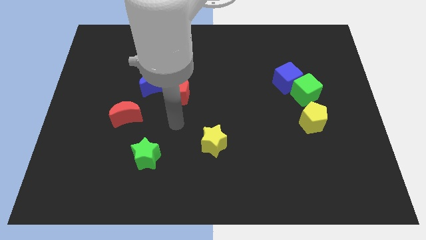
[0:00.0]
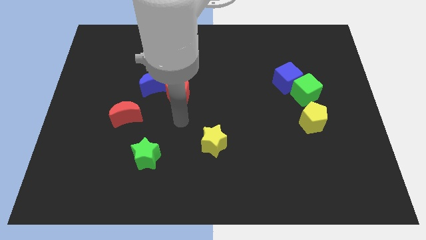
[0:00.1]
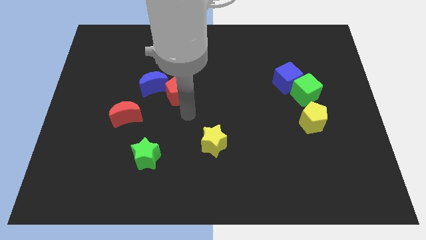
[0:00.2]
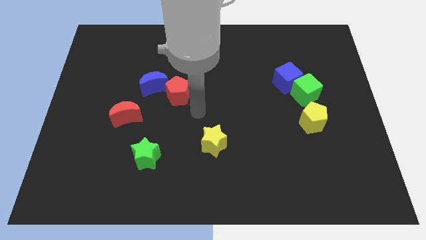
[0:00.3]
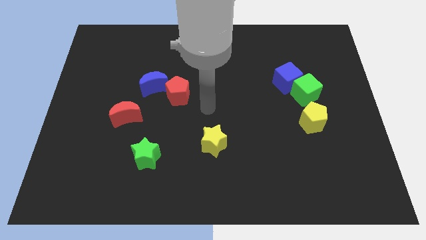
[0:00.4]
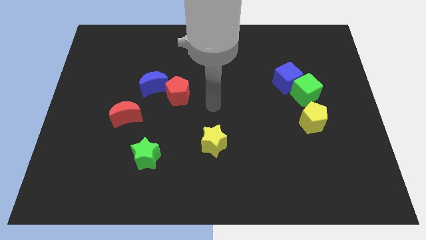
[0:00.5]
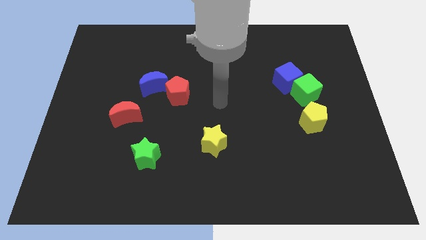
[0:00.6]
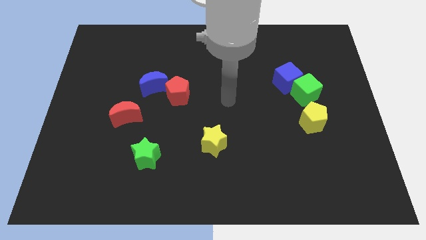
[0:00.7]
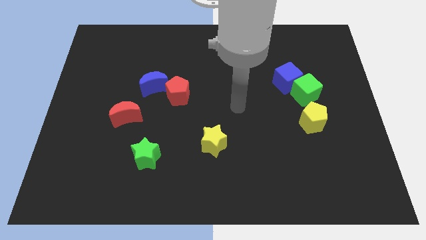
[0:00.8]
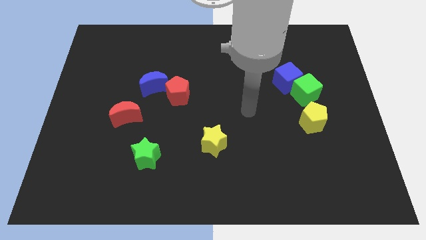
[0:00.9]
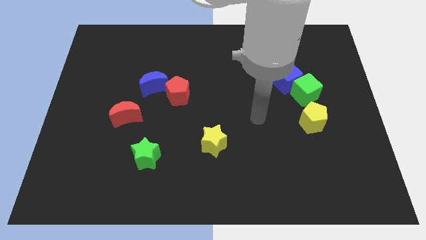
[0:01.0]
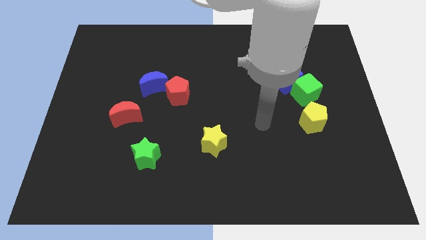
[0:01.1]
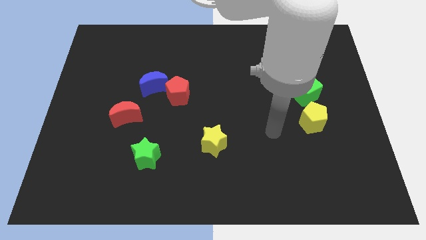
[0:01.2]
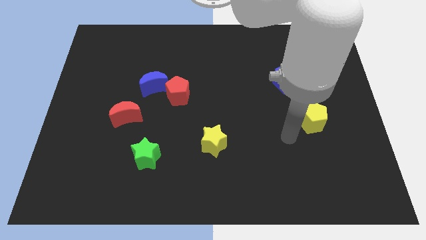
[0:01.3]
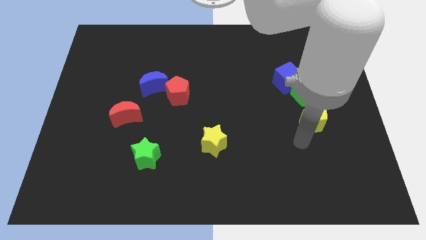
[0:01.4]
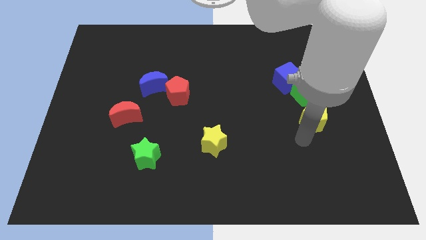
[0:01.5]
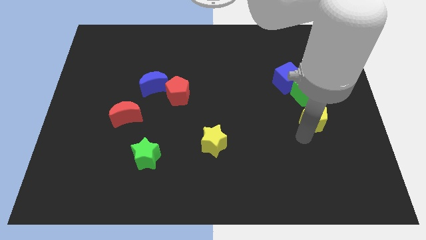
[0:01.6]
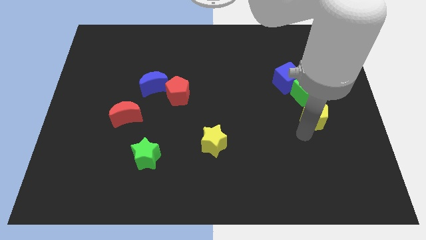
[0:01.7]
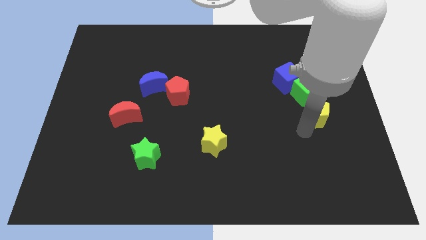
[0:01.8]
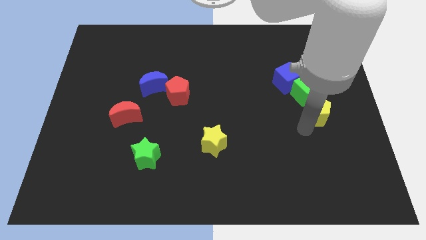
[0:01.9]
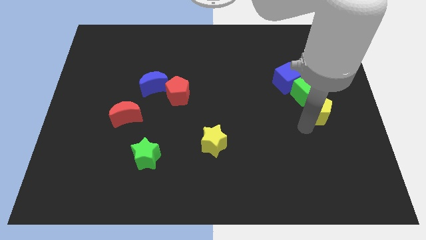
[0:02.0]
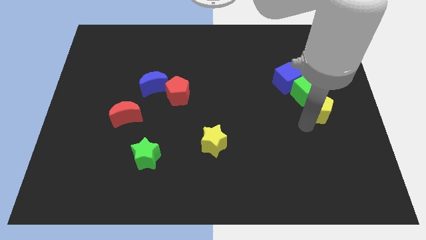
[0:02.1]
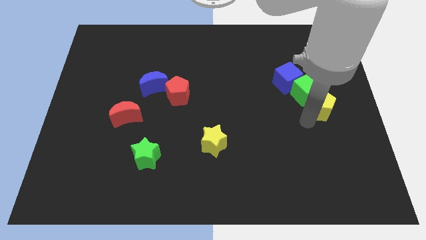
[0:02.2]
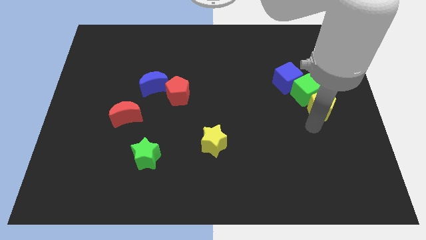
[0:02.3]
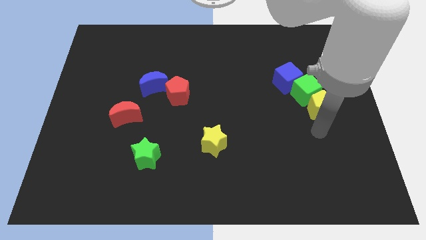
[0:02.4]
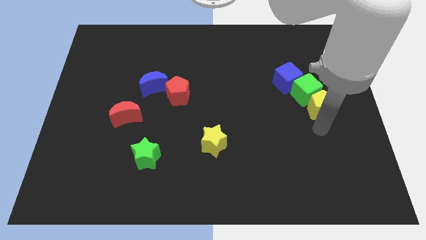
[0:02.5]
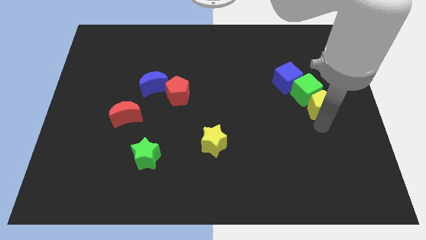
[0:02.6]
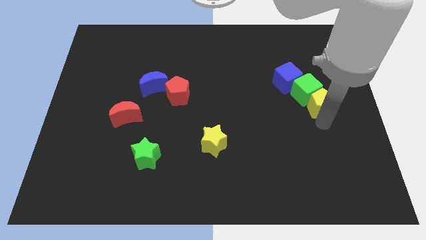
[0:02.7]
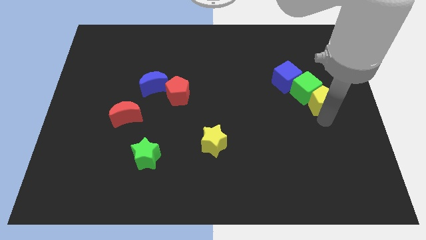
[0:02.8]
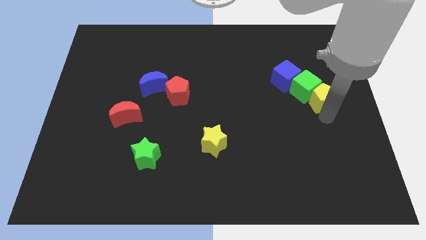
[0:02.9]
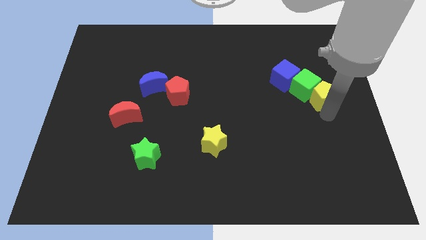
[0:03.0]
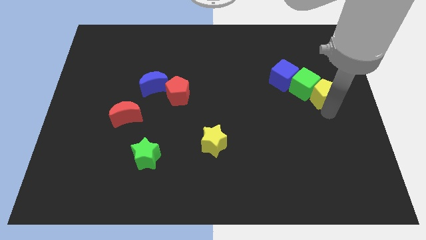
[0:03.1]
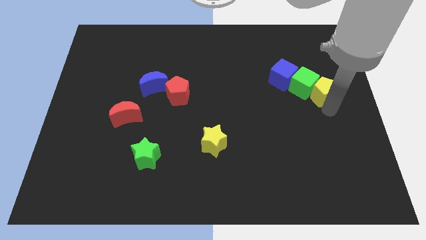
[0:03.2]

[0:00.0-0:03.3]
slide the yellow pentagon upwards somewhat

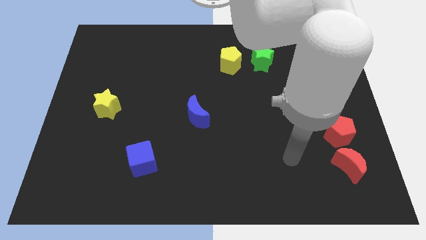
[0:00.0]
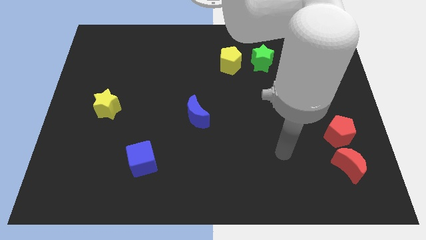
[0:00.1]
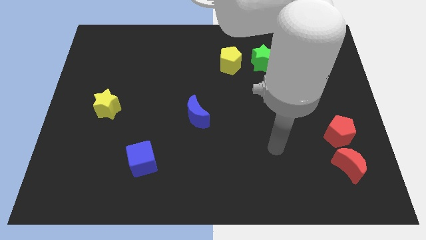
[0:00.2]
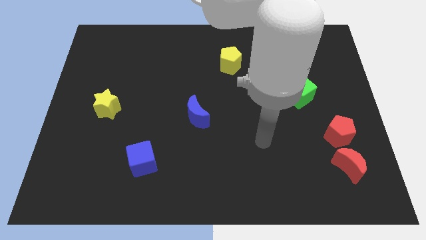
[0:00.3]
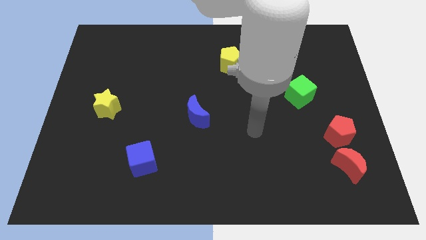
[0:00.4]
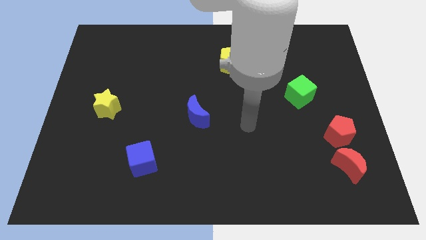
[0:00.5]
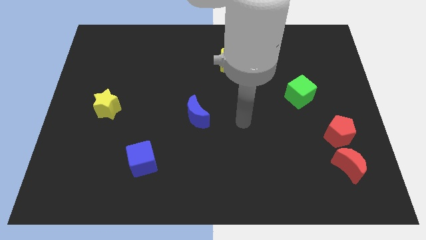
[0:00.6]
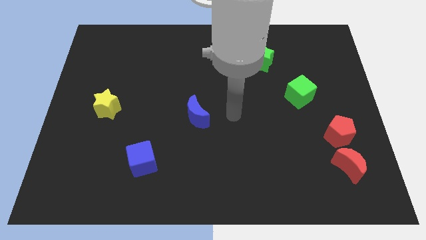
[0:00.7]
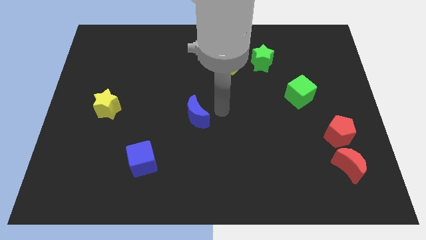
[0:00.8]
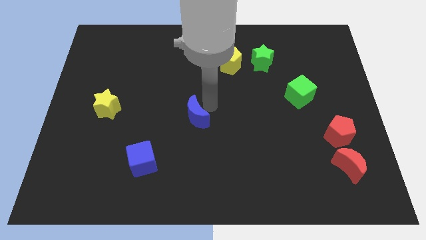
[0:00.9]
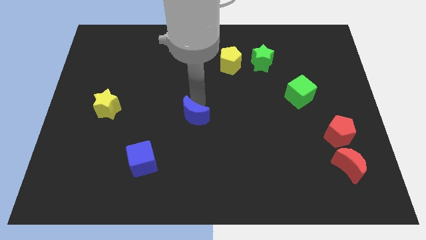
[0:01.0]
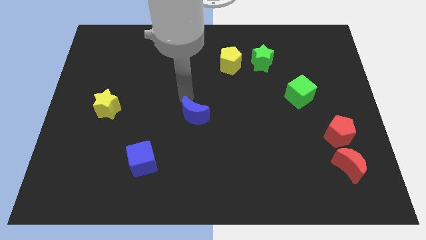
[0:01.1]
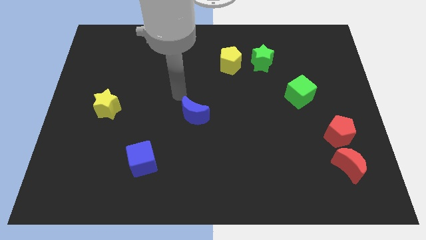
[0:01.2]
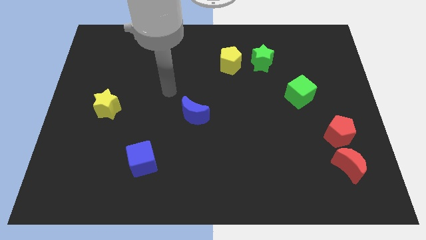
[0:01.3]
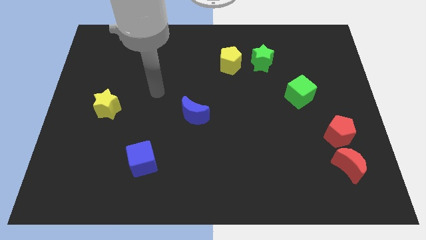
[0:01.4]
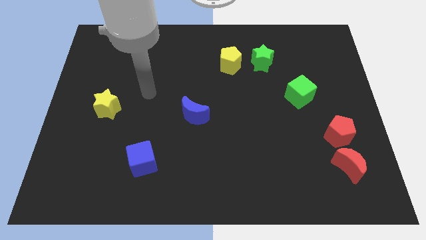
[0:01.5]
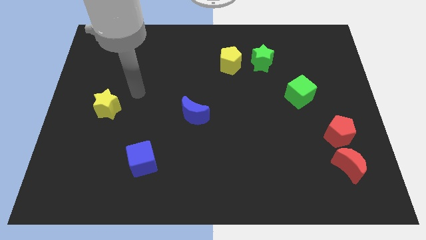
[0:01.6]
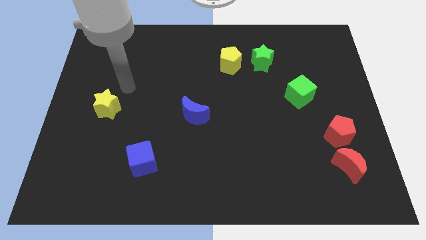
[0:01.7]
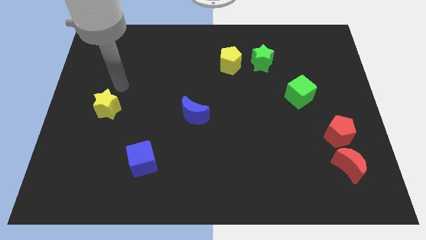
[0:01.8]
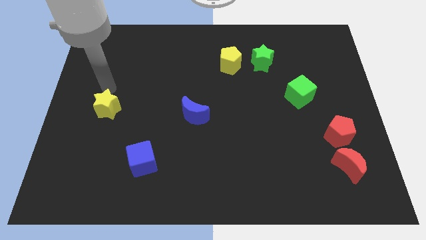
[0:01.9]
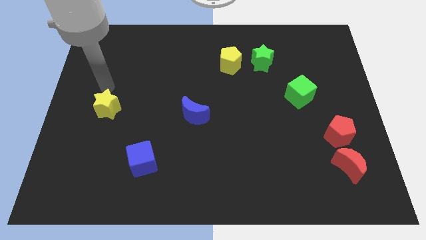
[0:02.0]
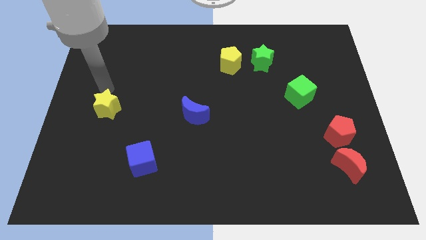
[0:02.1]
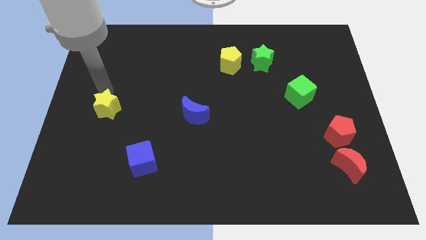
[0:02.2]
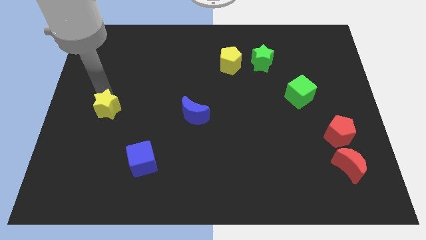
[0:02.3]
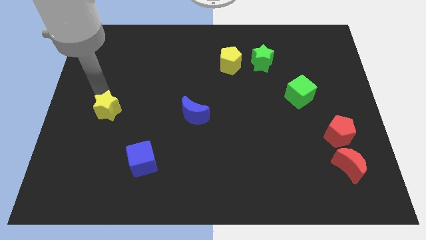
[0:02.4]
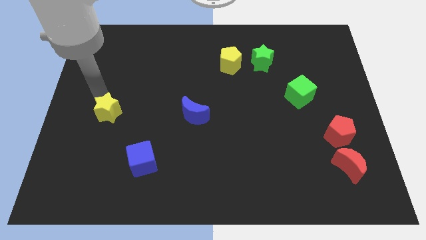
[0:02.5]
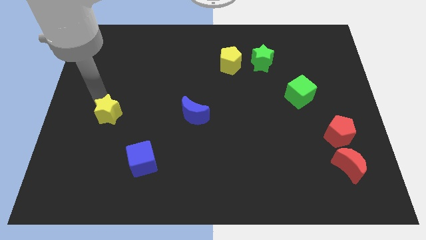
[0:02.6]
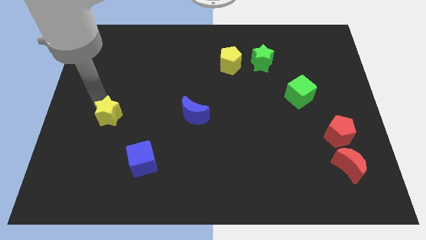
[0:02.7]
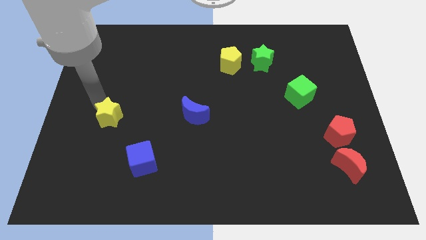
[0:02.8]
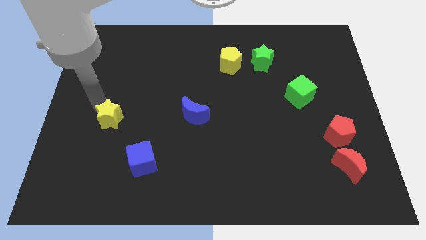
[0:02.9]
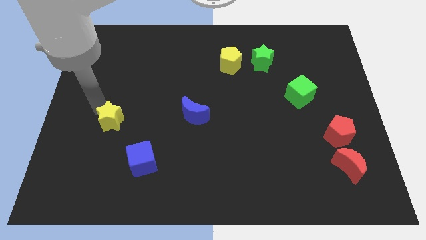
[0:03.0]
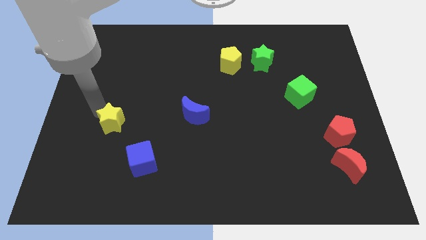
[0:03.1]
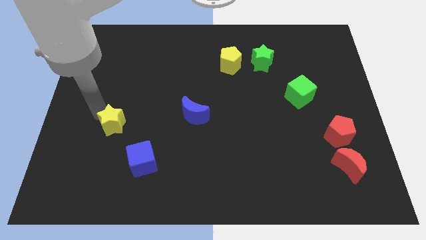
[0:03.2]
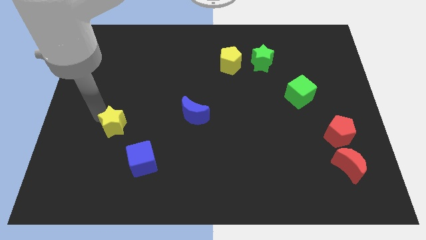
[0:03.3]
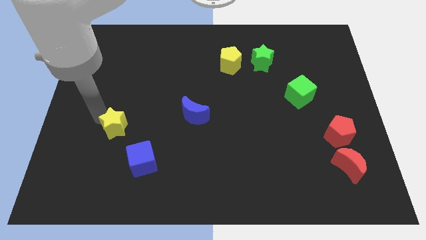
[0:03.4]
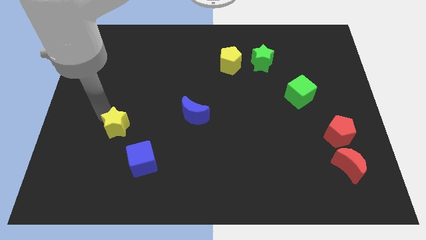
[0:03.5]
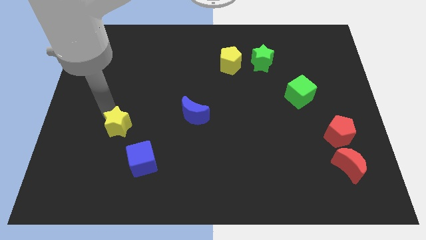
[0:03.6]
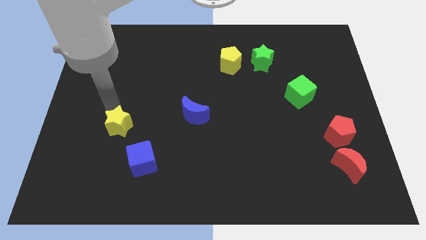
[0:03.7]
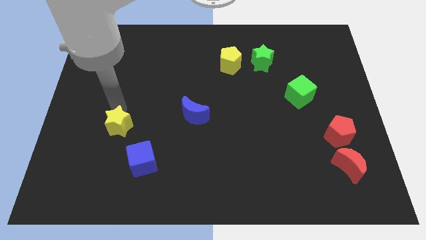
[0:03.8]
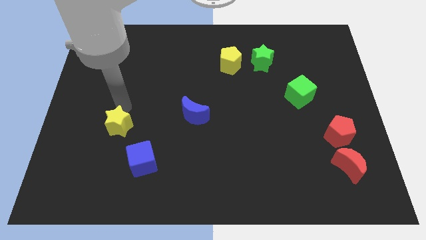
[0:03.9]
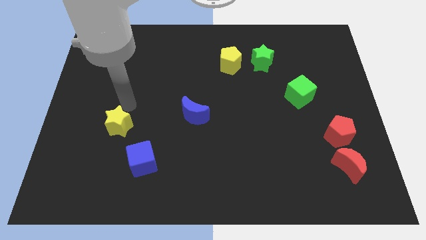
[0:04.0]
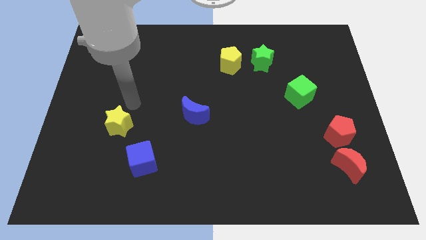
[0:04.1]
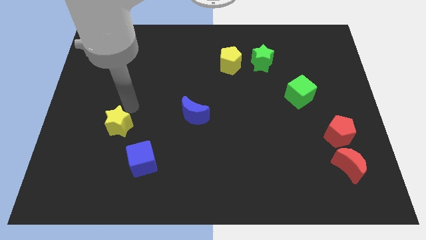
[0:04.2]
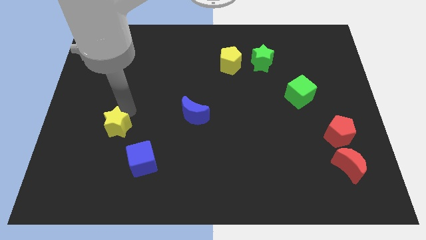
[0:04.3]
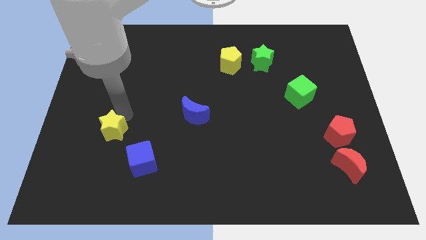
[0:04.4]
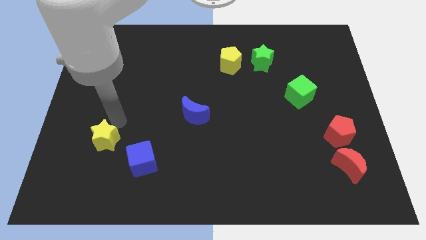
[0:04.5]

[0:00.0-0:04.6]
move the yellow star slightly down
